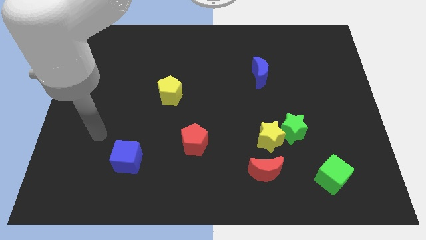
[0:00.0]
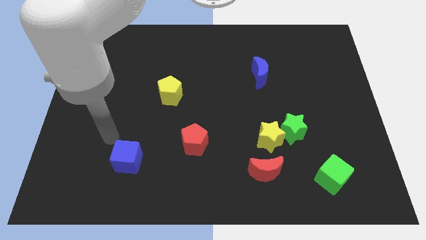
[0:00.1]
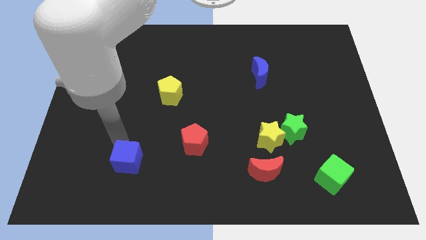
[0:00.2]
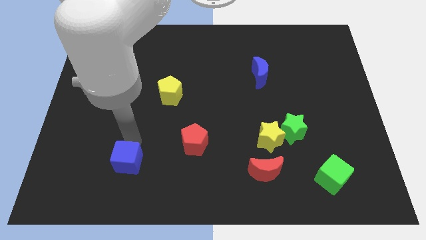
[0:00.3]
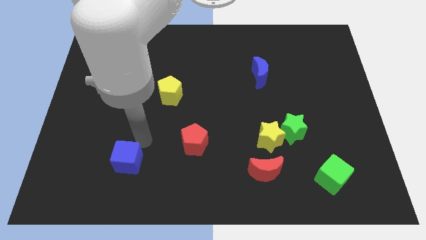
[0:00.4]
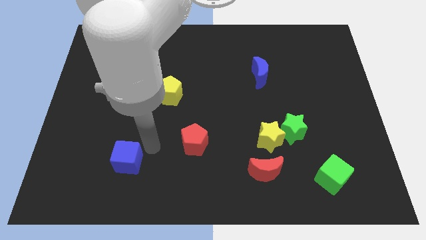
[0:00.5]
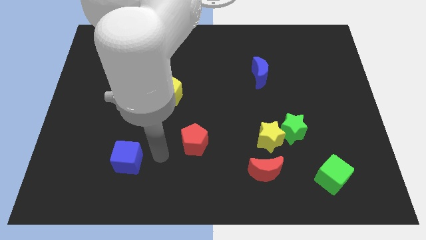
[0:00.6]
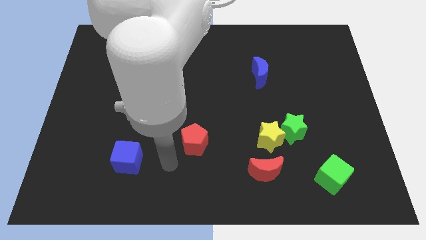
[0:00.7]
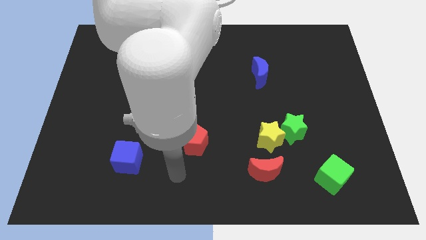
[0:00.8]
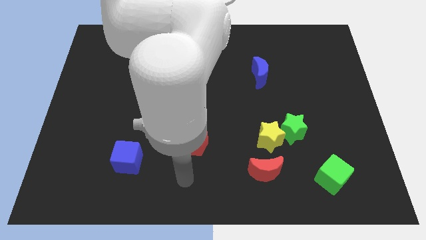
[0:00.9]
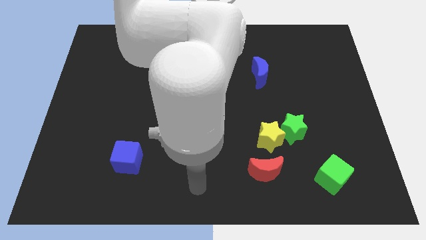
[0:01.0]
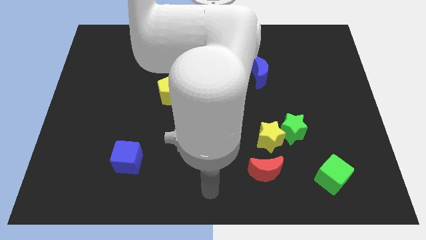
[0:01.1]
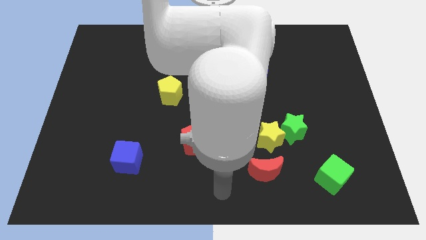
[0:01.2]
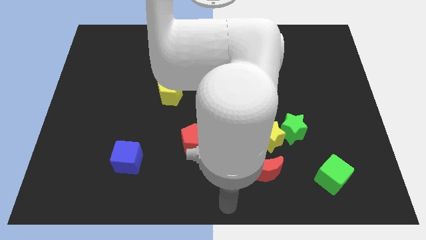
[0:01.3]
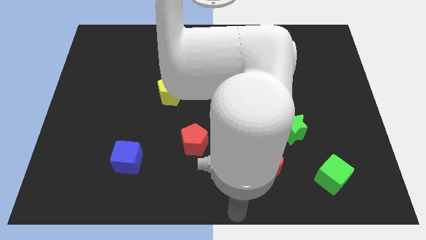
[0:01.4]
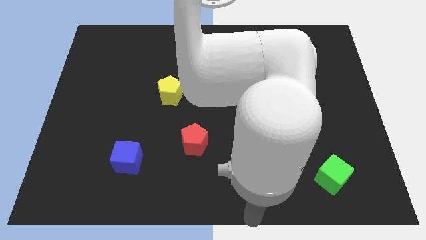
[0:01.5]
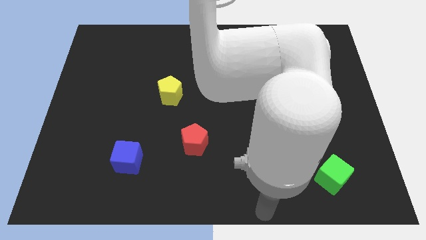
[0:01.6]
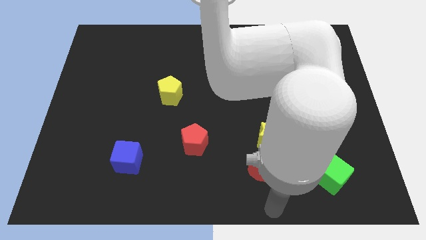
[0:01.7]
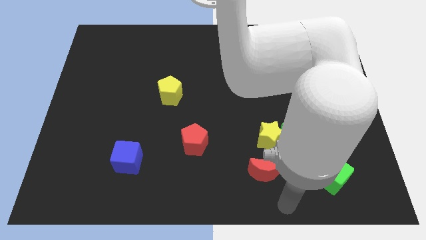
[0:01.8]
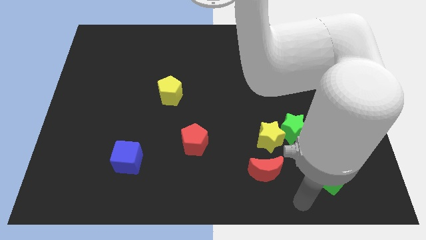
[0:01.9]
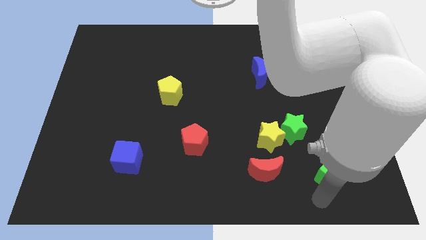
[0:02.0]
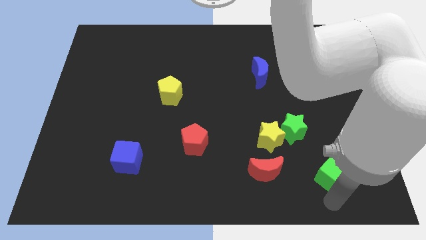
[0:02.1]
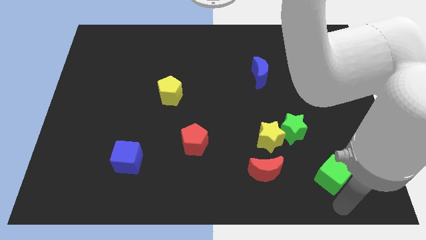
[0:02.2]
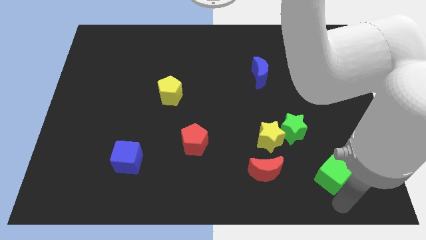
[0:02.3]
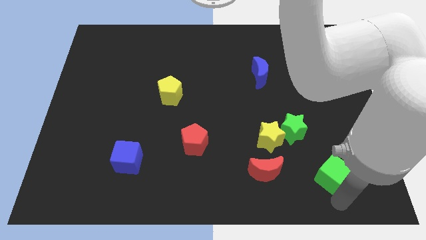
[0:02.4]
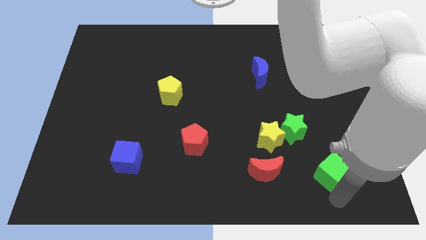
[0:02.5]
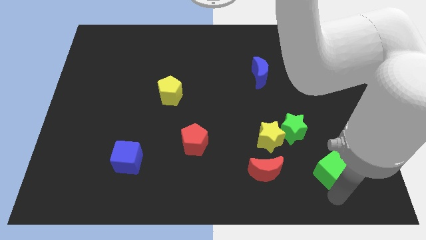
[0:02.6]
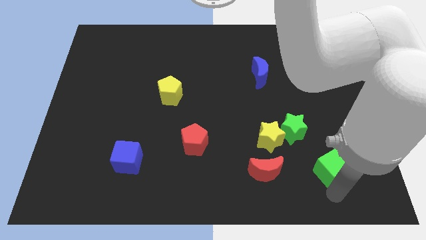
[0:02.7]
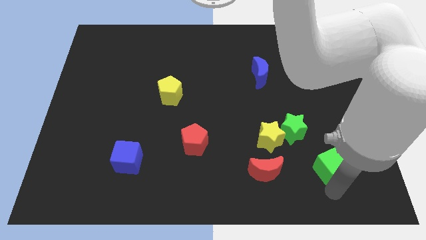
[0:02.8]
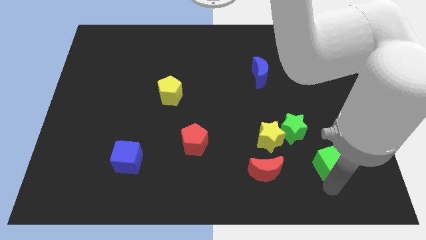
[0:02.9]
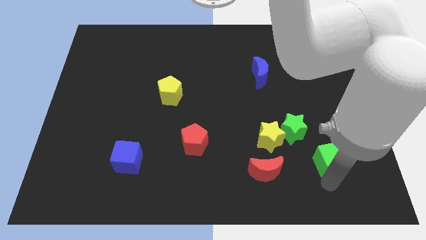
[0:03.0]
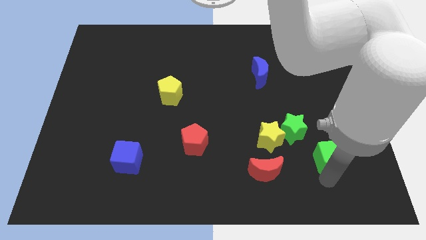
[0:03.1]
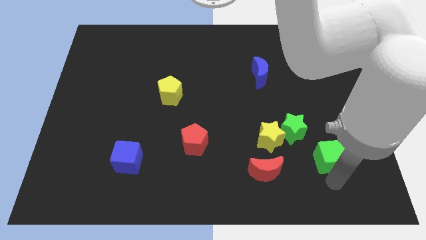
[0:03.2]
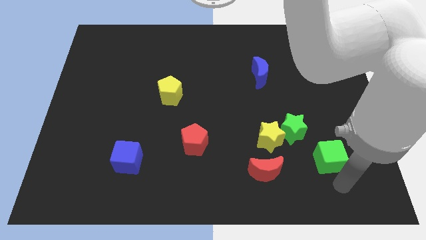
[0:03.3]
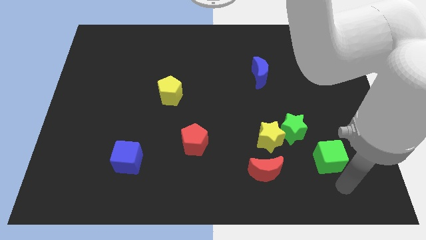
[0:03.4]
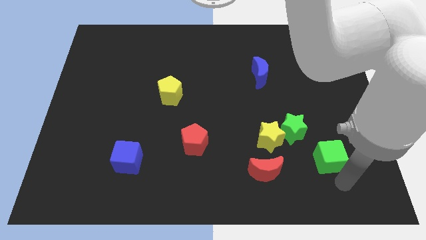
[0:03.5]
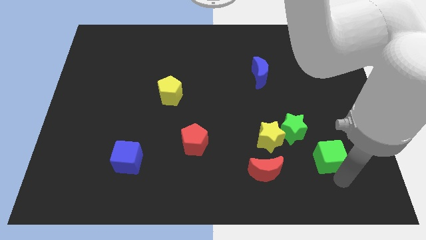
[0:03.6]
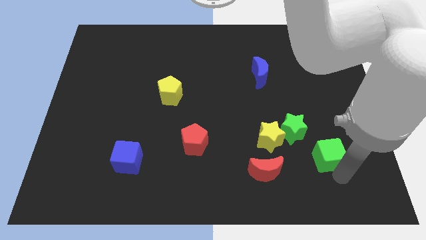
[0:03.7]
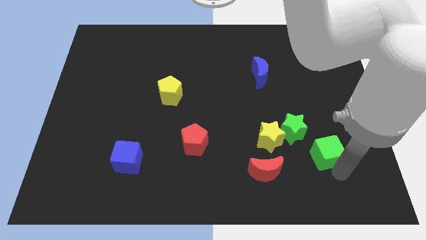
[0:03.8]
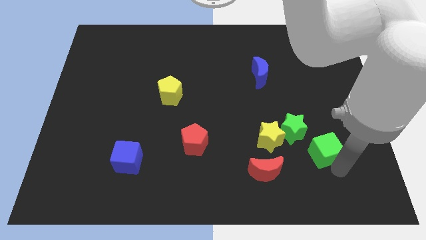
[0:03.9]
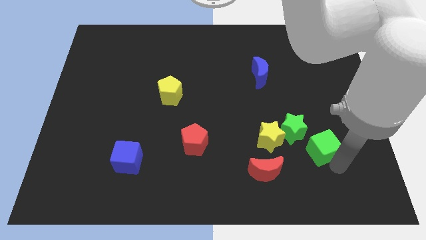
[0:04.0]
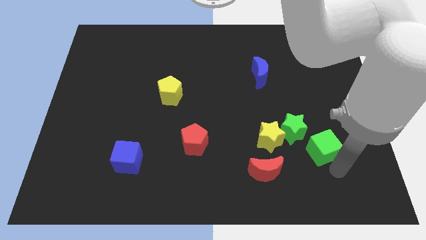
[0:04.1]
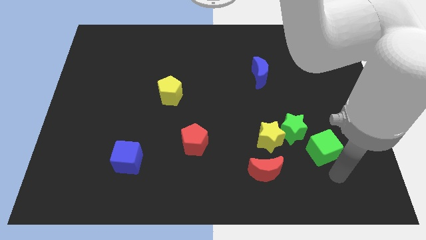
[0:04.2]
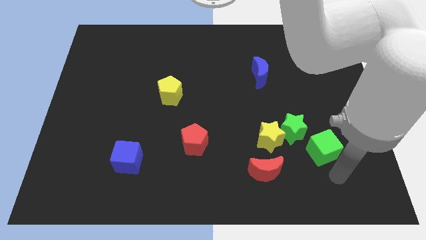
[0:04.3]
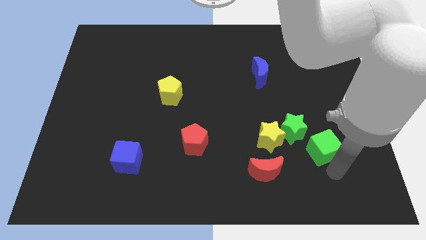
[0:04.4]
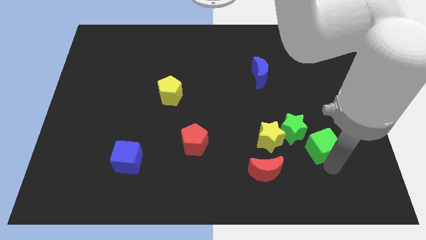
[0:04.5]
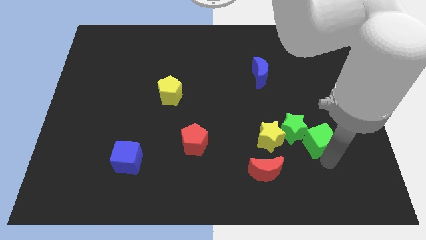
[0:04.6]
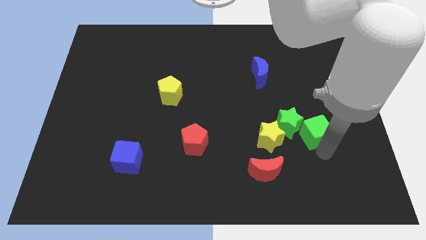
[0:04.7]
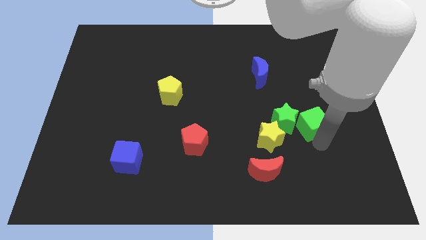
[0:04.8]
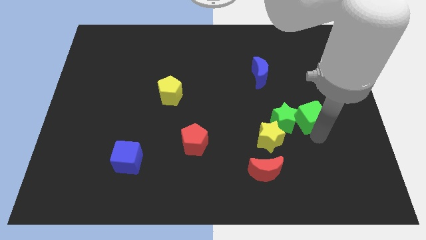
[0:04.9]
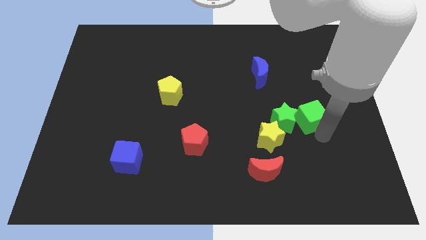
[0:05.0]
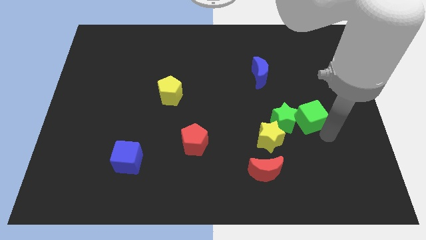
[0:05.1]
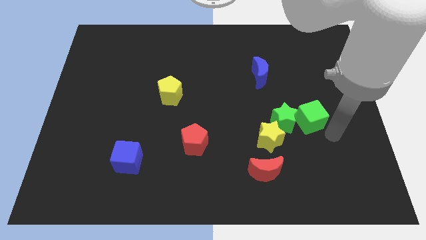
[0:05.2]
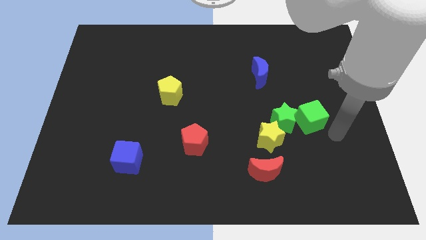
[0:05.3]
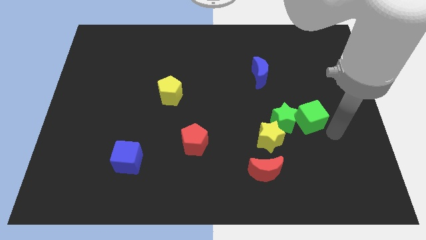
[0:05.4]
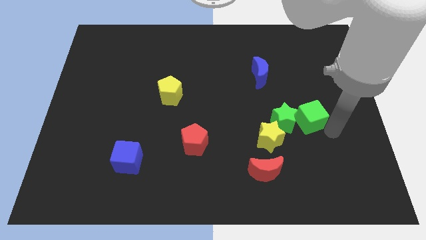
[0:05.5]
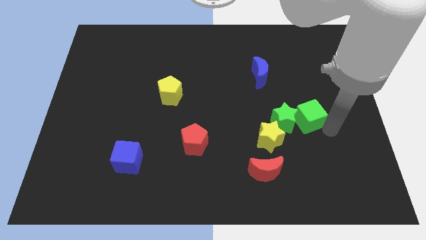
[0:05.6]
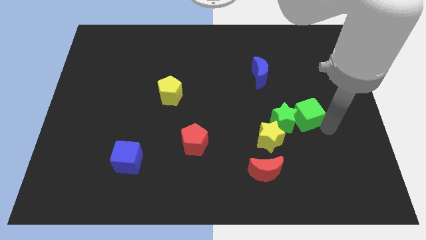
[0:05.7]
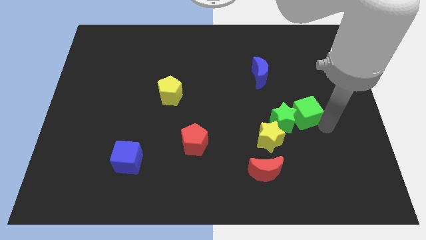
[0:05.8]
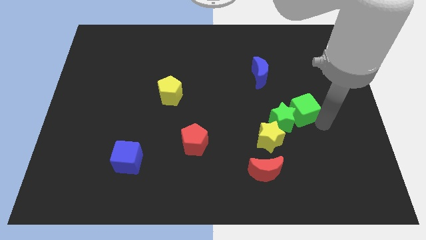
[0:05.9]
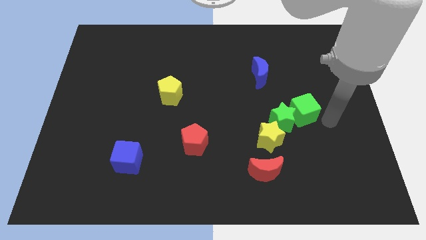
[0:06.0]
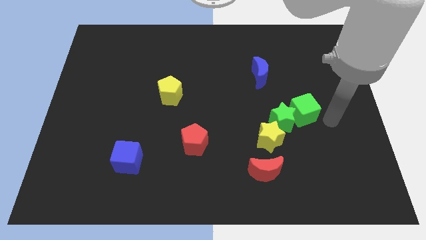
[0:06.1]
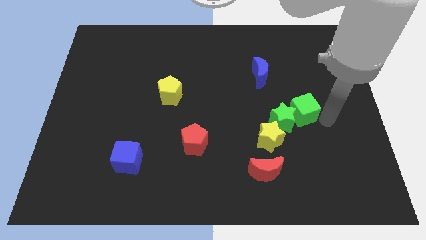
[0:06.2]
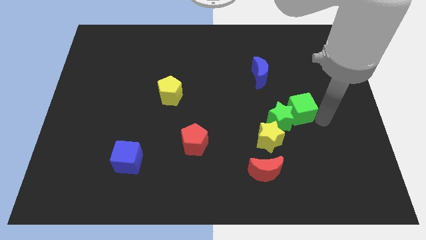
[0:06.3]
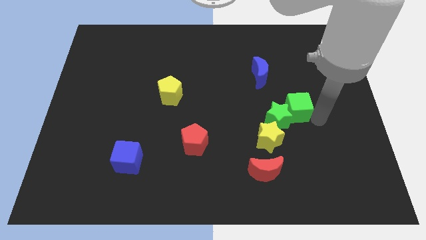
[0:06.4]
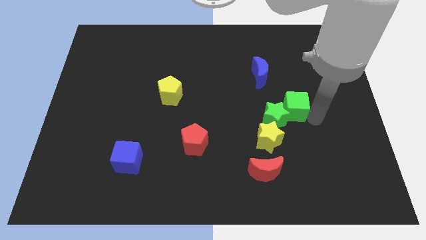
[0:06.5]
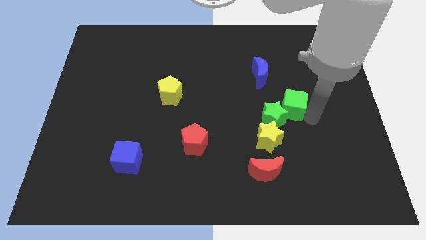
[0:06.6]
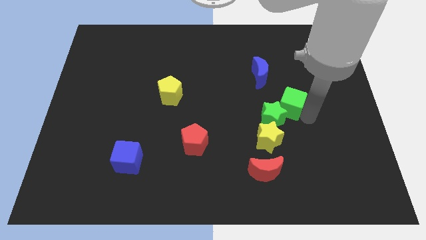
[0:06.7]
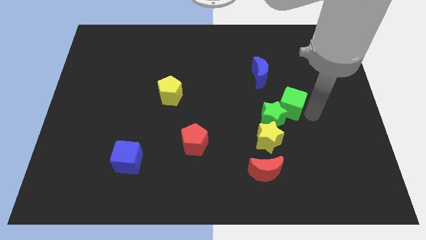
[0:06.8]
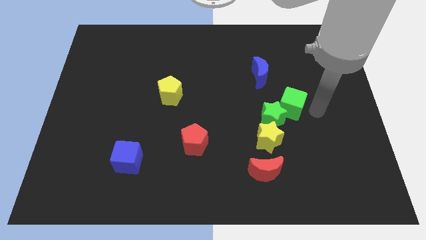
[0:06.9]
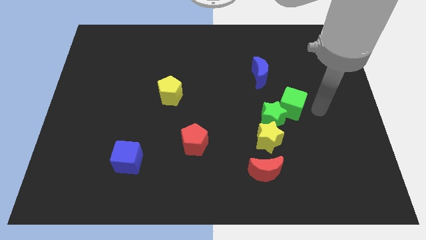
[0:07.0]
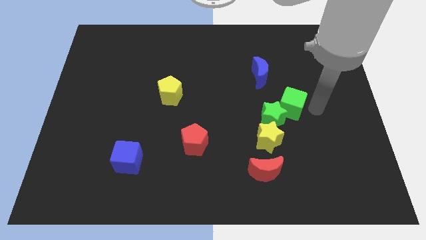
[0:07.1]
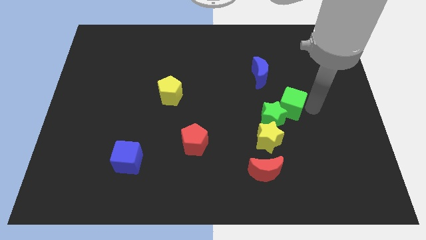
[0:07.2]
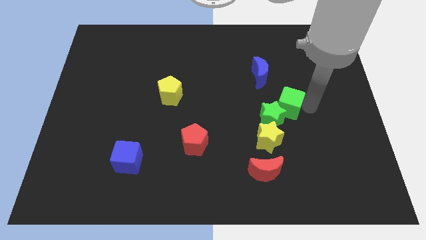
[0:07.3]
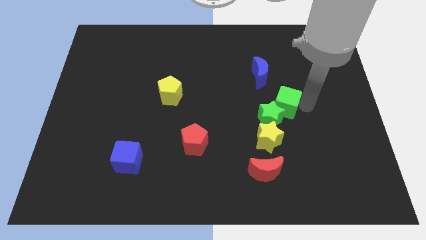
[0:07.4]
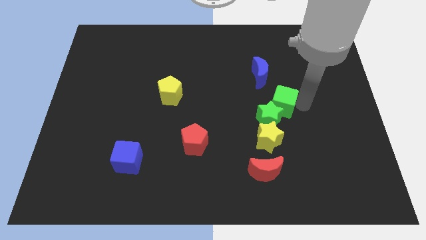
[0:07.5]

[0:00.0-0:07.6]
push the green cube above the yellow star
